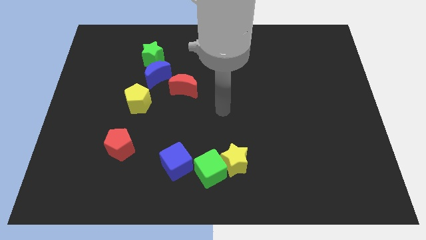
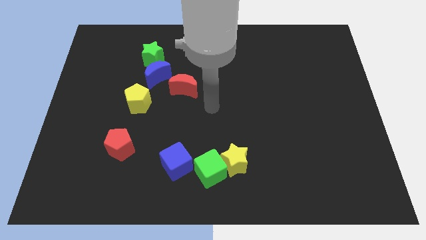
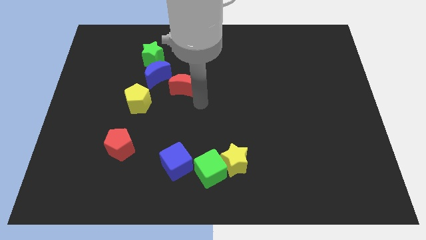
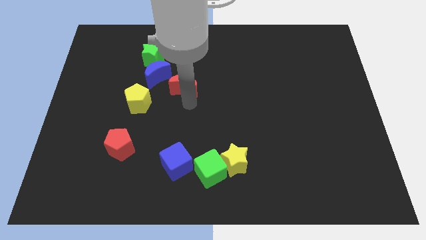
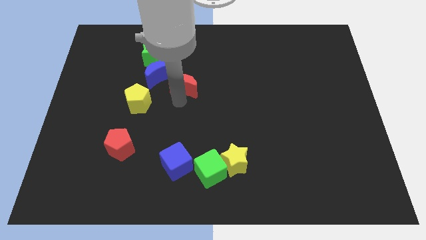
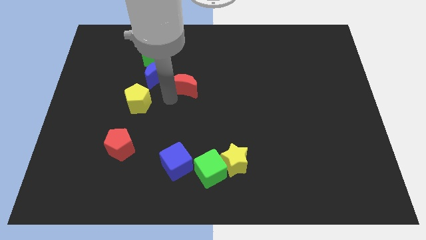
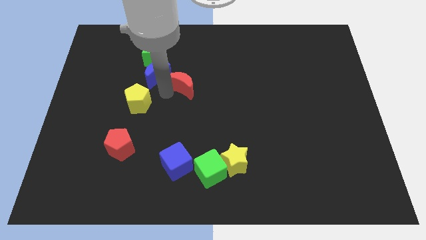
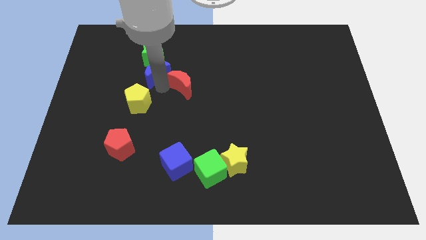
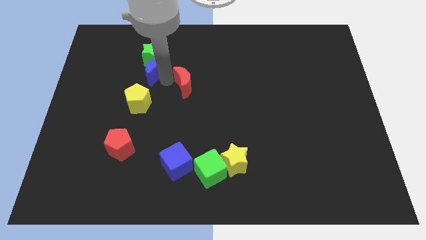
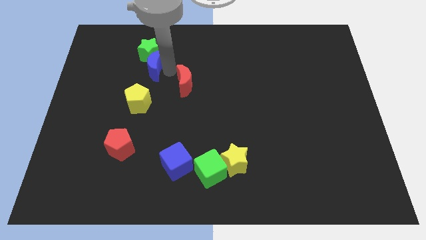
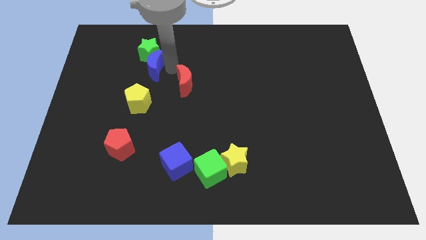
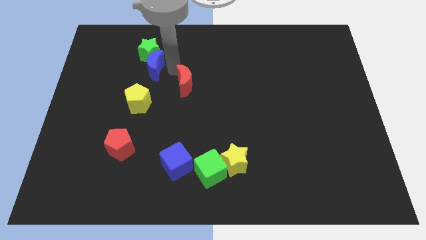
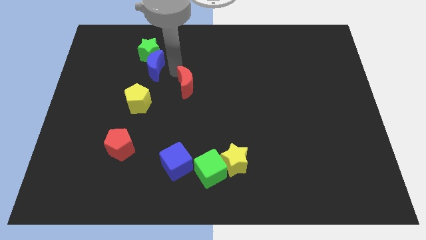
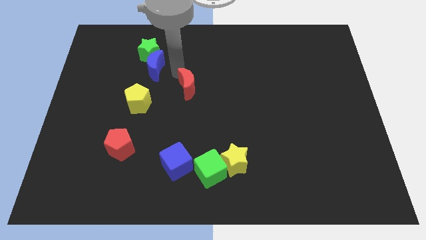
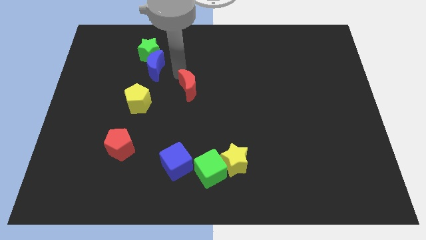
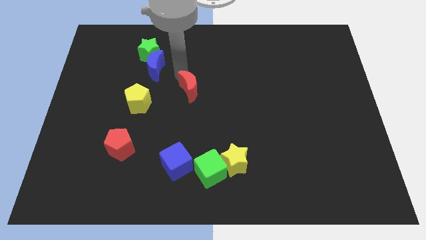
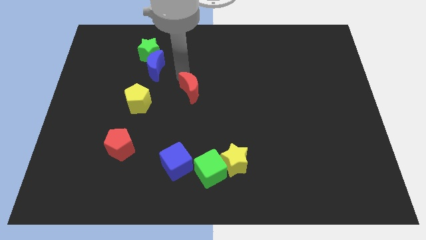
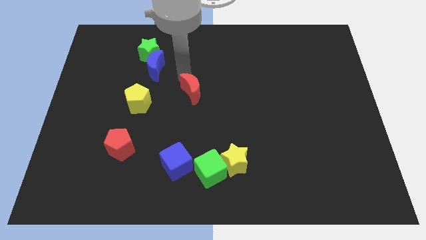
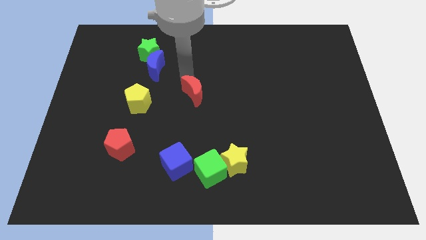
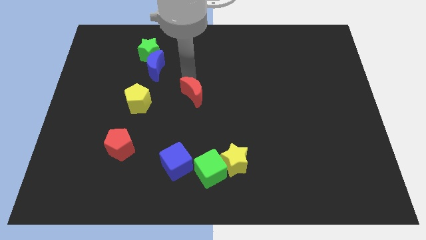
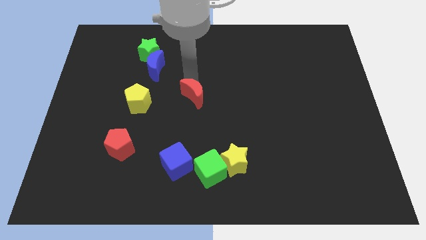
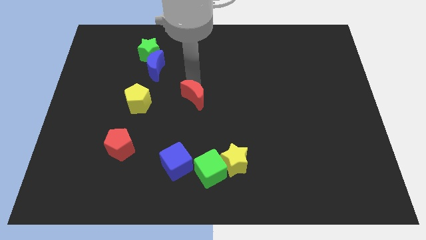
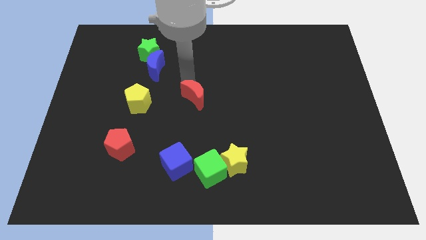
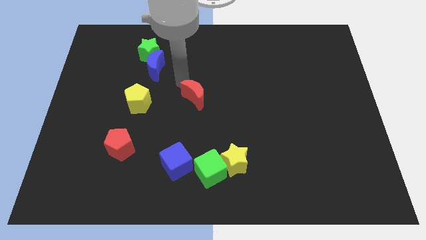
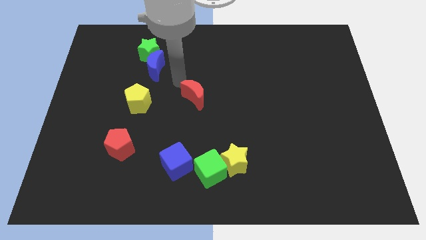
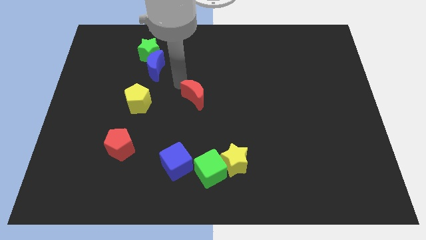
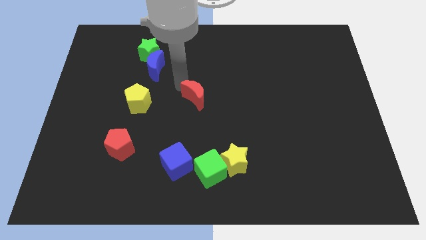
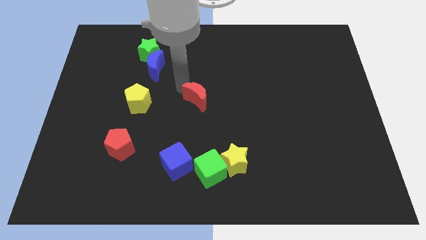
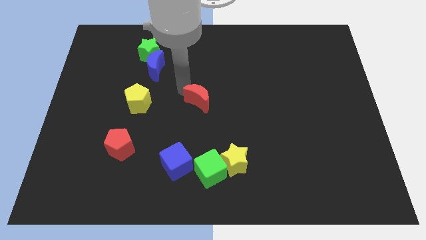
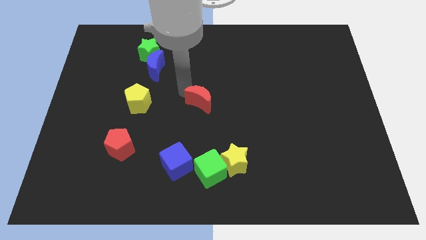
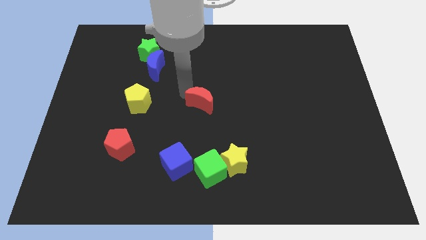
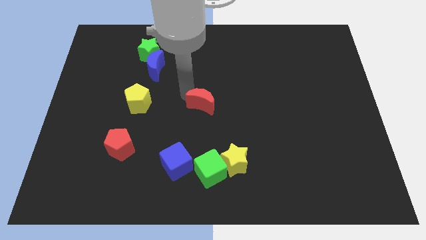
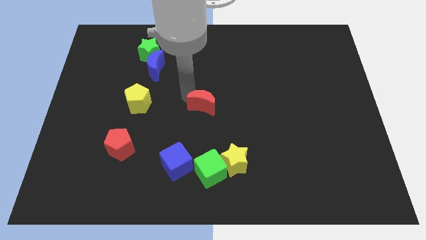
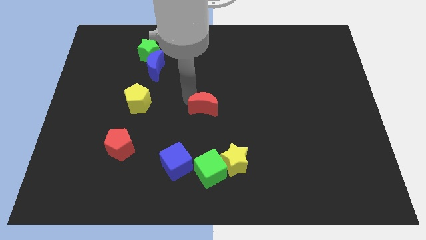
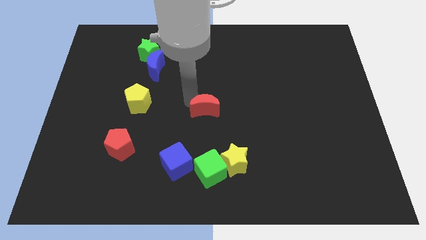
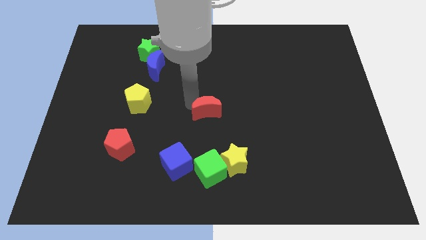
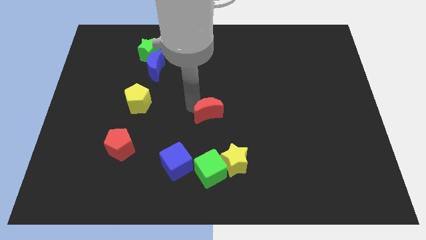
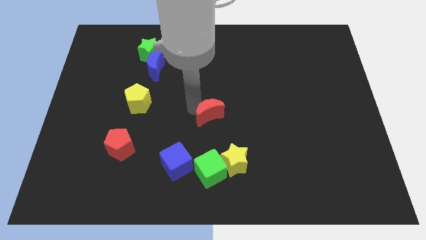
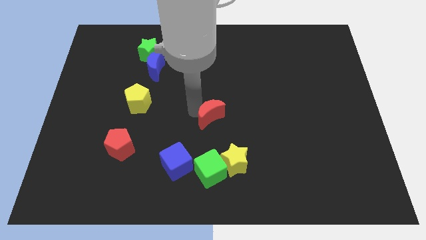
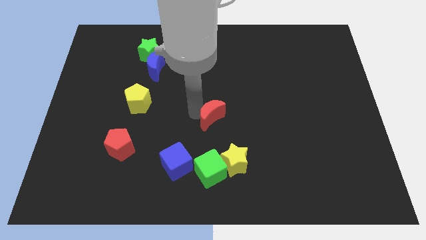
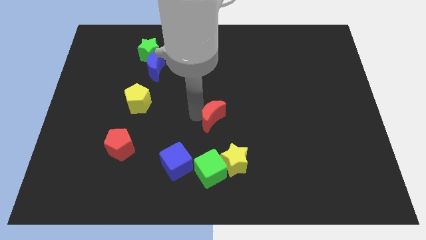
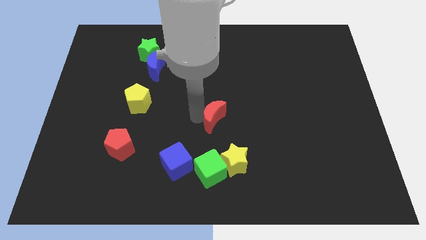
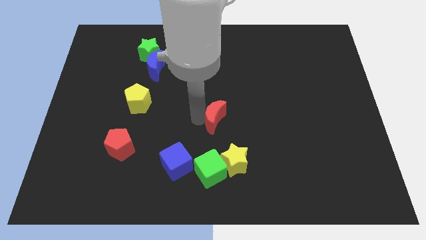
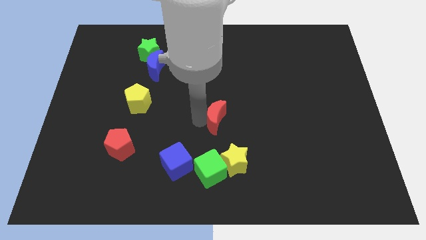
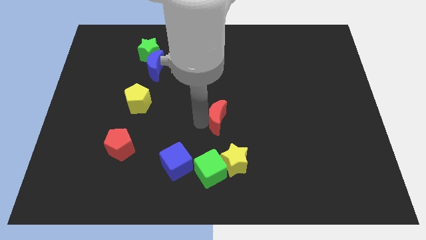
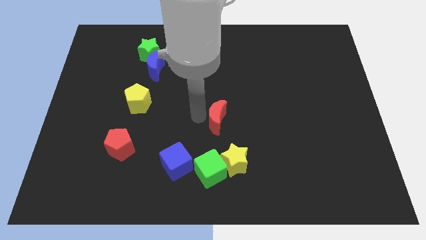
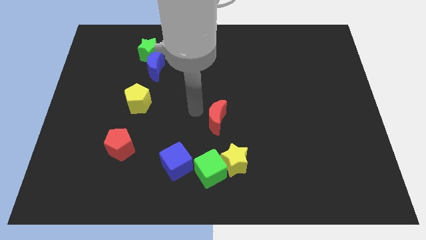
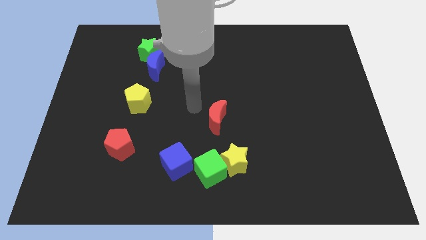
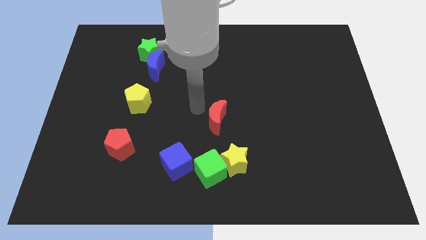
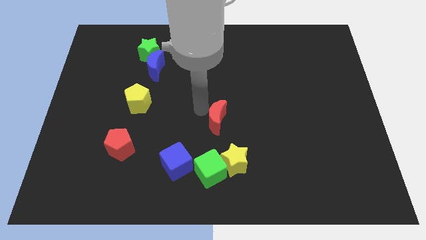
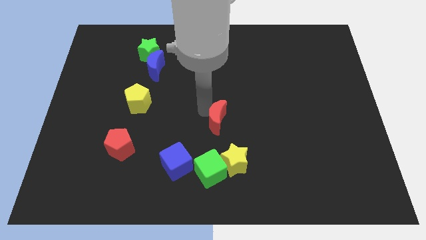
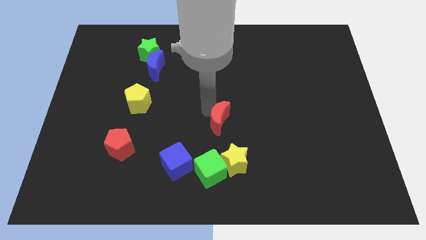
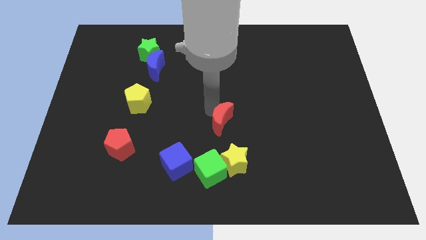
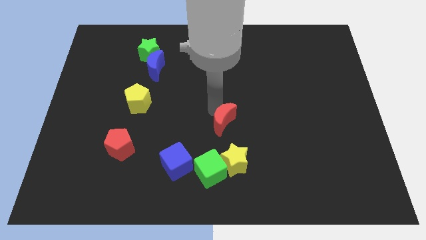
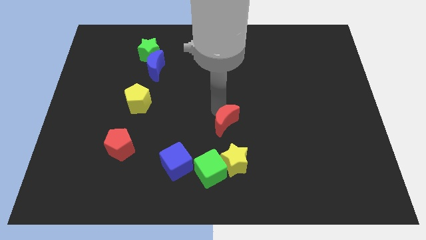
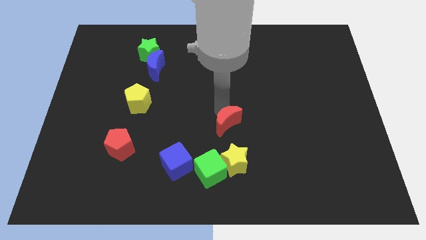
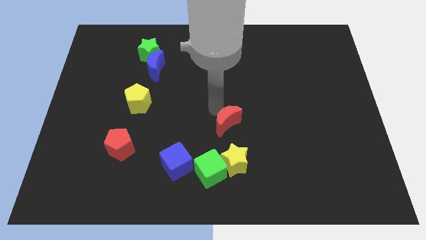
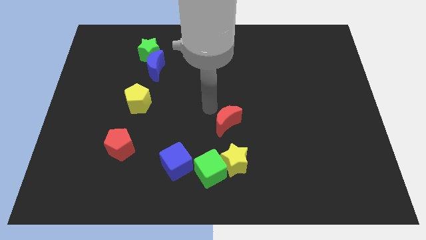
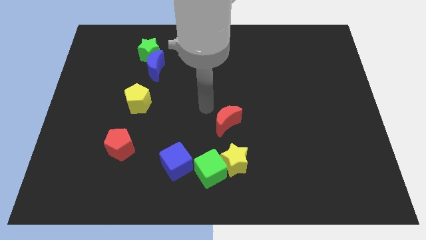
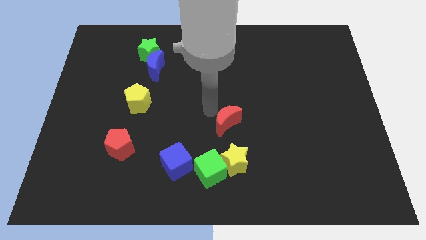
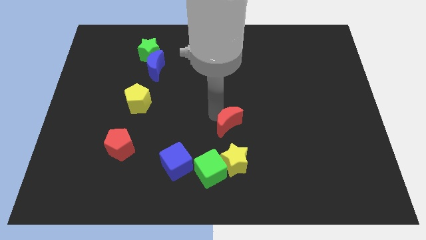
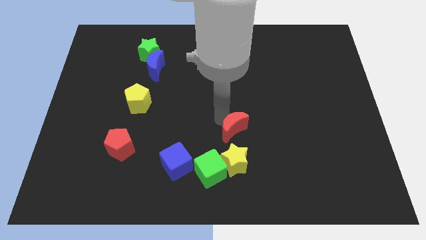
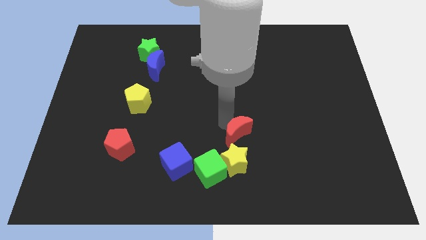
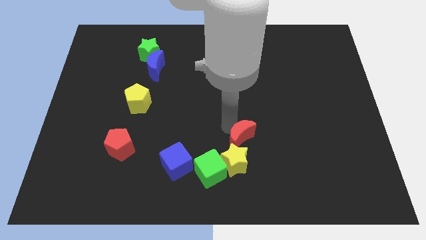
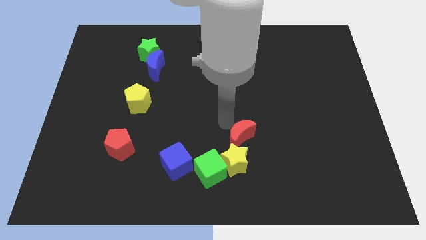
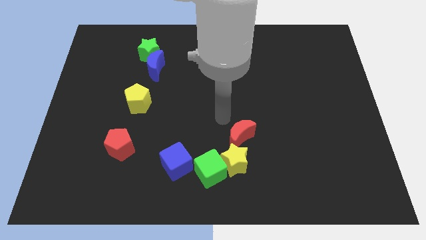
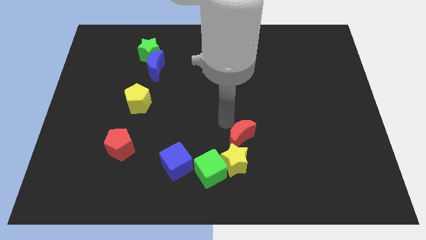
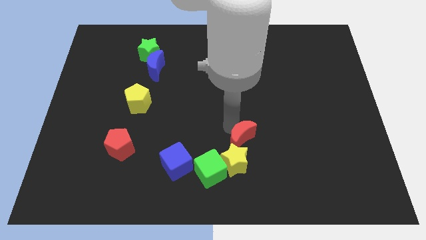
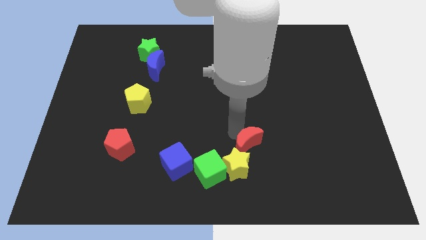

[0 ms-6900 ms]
slide the red moon downwards and right diagonally

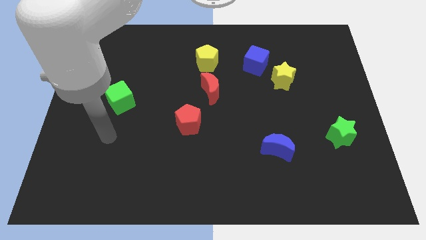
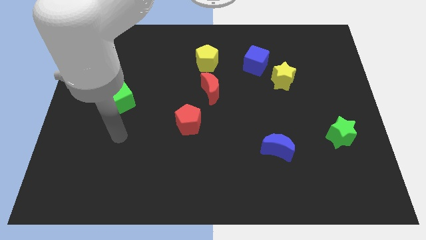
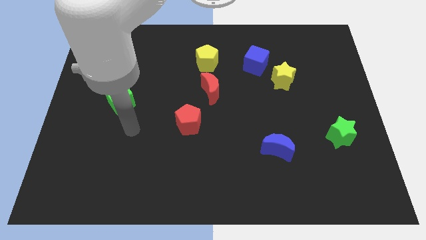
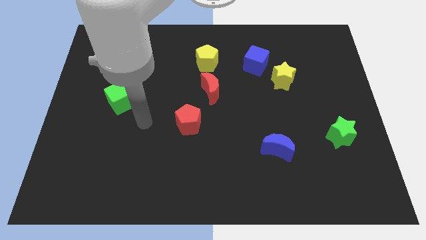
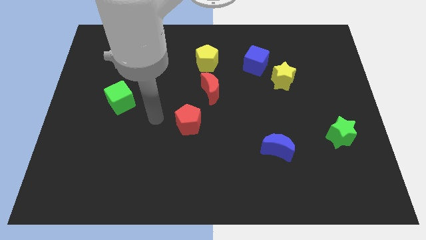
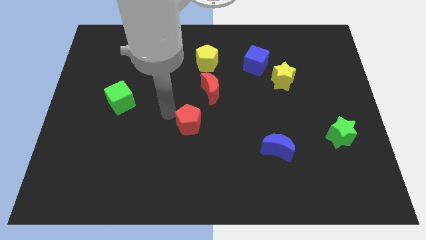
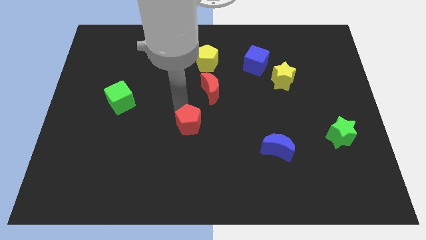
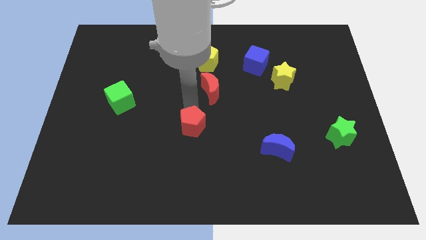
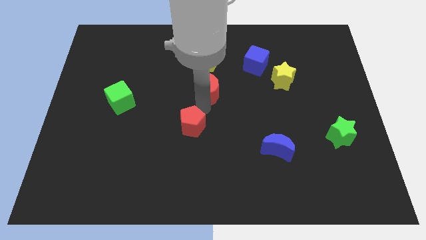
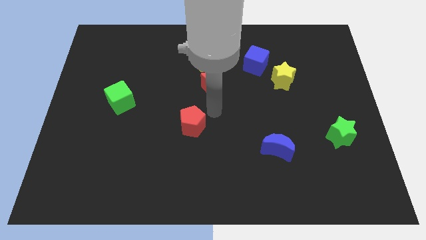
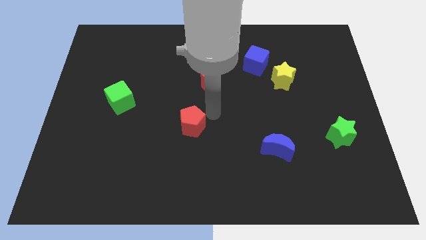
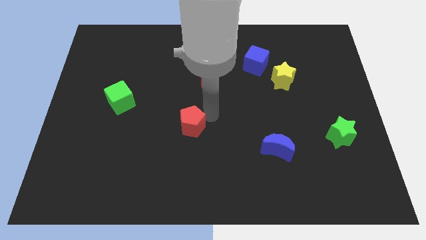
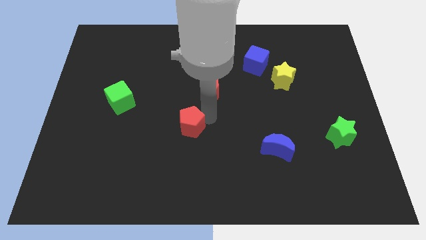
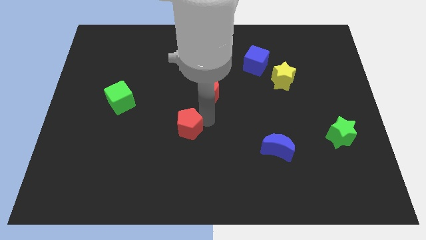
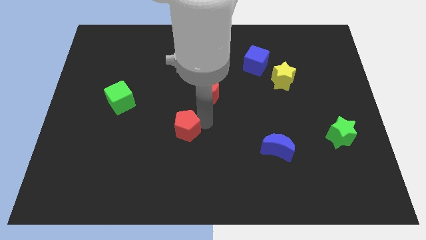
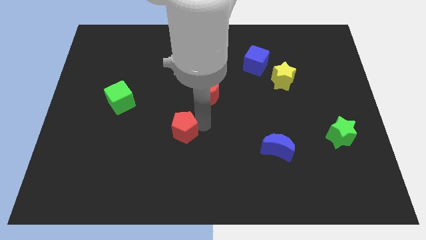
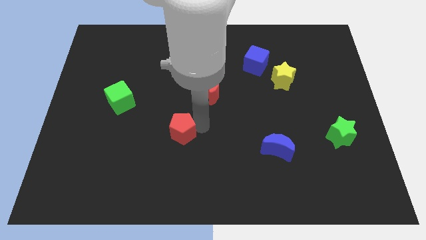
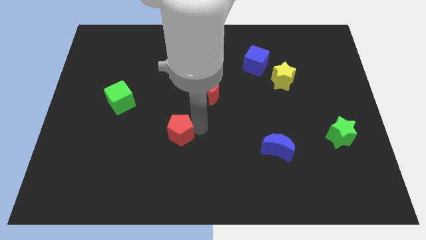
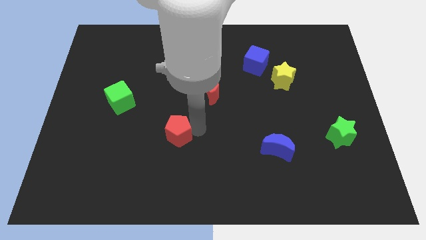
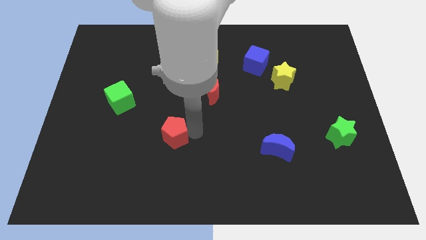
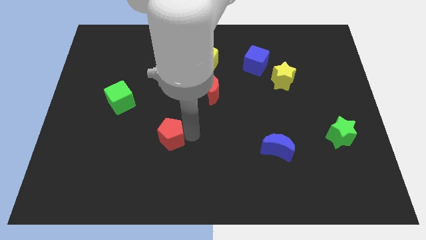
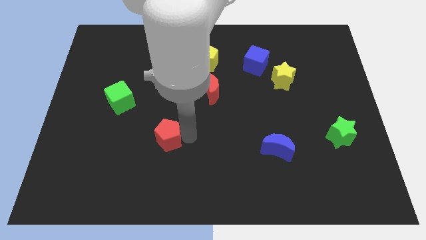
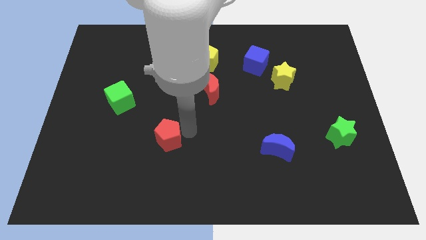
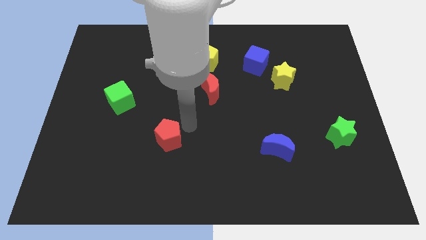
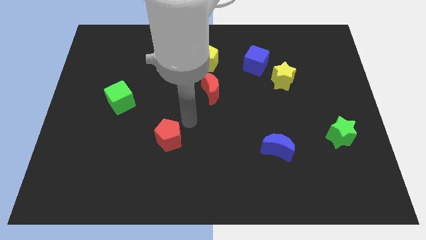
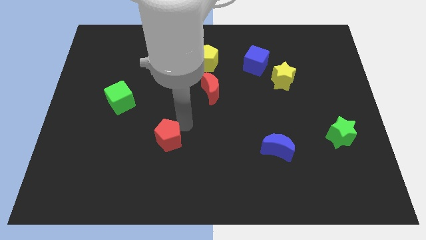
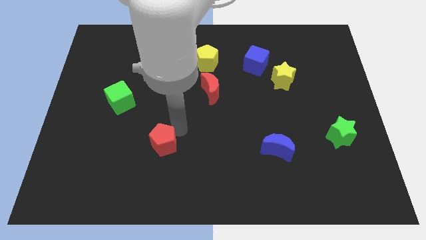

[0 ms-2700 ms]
push the red pentagon a bit downwards and to the left
